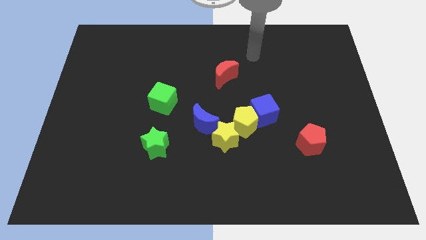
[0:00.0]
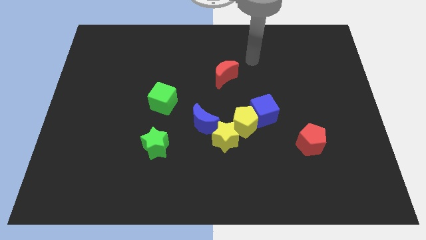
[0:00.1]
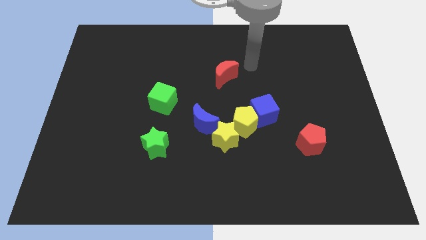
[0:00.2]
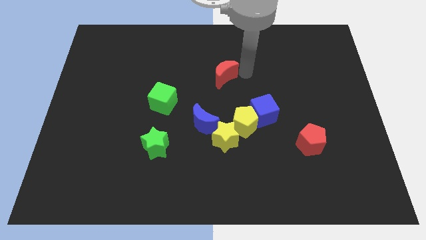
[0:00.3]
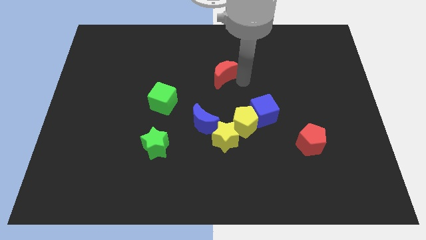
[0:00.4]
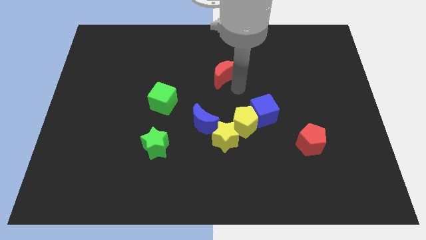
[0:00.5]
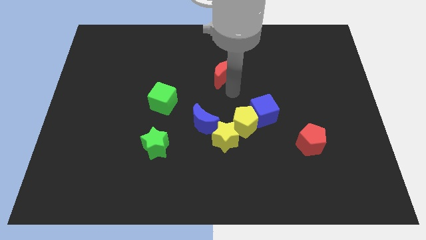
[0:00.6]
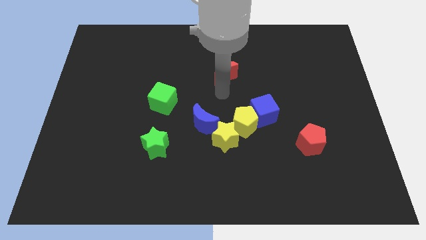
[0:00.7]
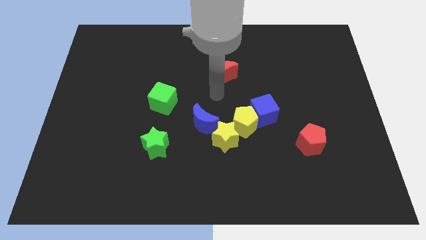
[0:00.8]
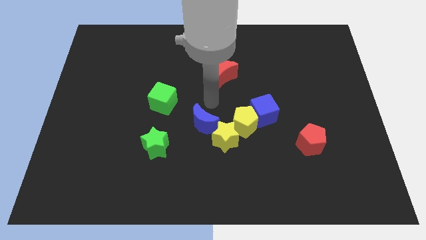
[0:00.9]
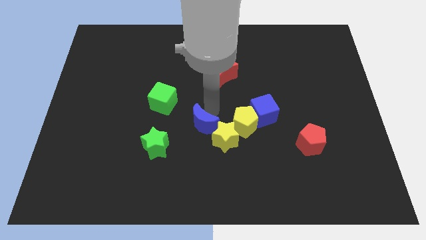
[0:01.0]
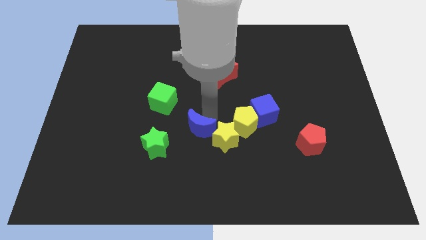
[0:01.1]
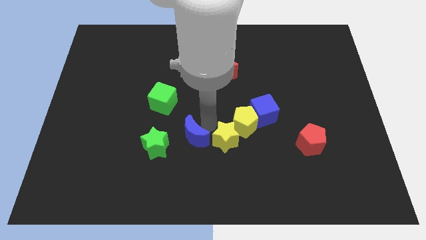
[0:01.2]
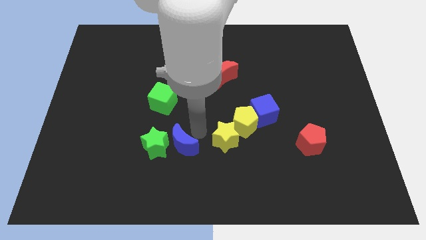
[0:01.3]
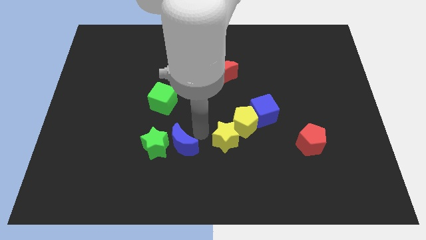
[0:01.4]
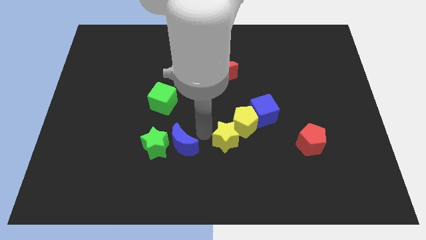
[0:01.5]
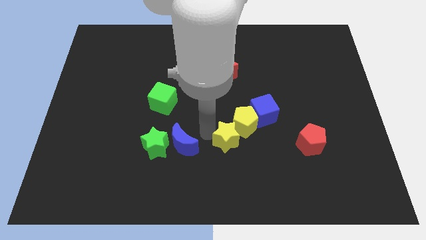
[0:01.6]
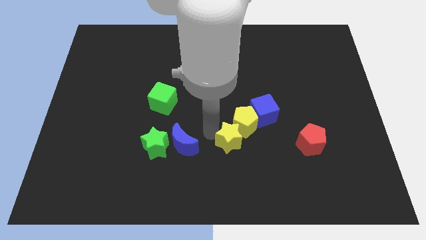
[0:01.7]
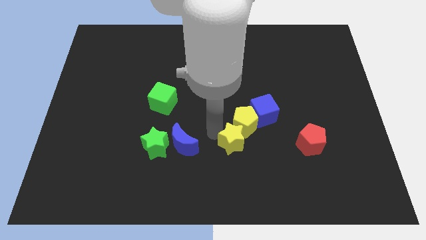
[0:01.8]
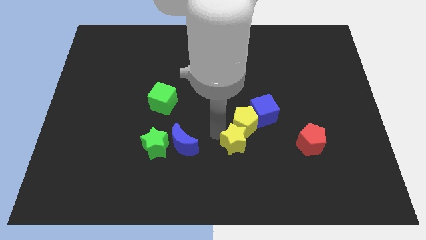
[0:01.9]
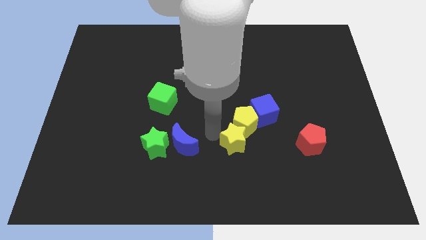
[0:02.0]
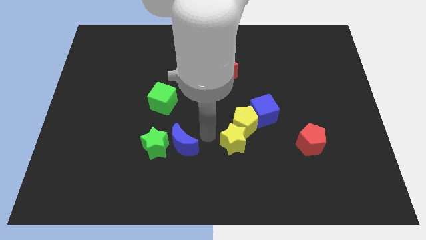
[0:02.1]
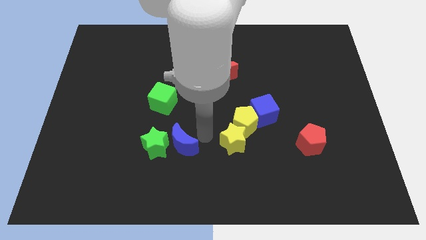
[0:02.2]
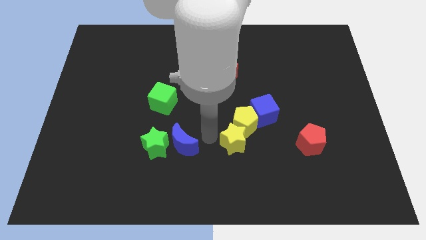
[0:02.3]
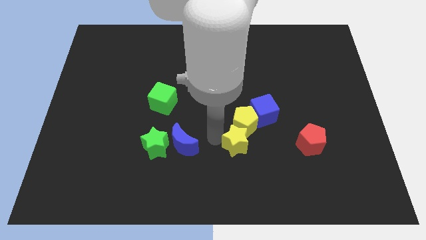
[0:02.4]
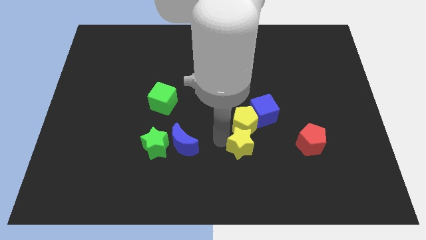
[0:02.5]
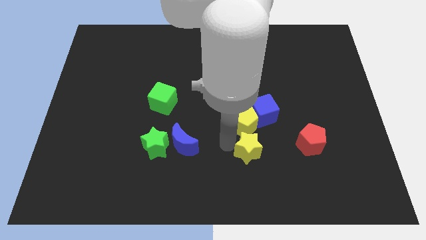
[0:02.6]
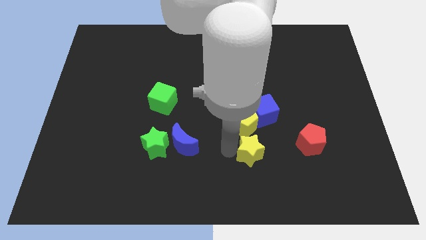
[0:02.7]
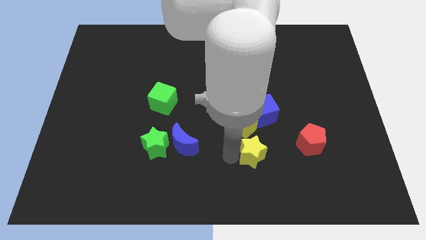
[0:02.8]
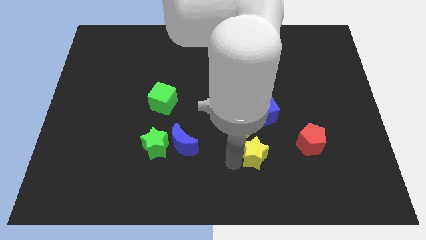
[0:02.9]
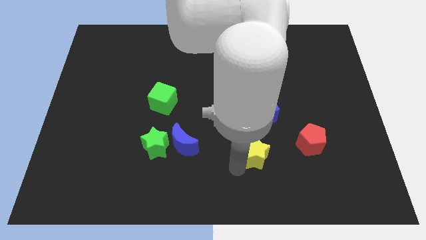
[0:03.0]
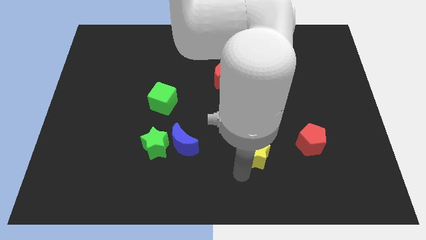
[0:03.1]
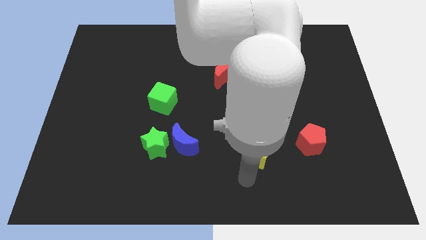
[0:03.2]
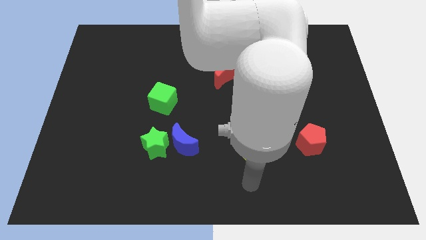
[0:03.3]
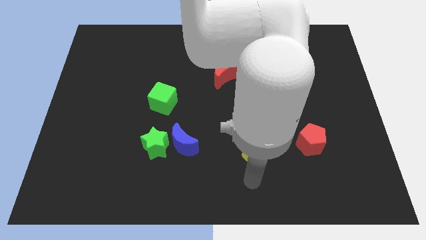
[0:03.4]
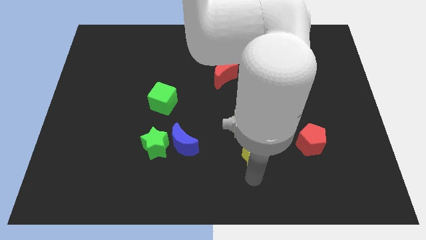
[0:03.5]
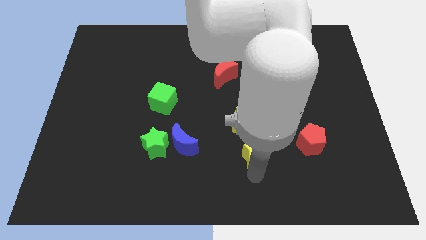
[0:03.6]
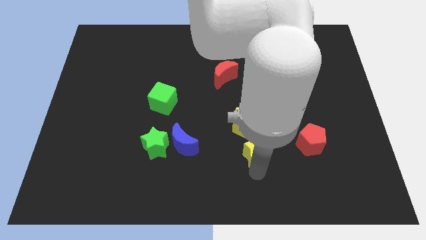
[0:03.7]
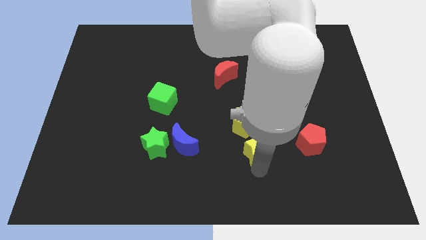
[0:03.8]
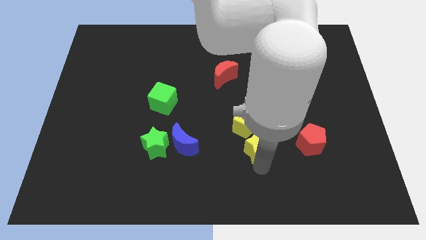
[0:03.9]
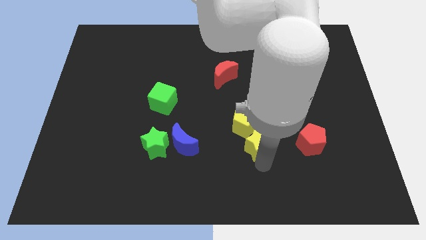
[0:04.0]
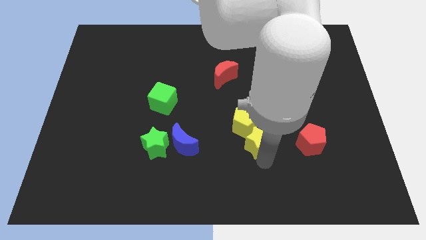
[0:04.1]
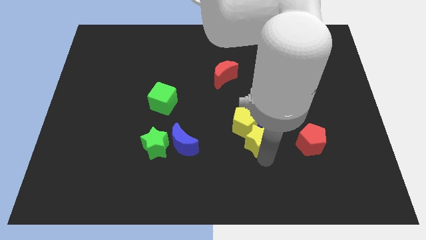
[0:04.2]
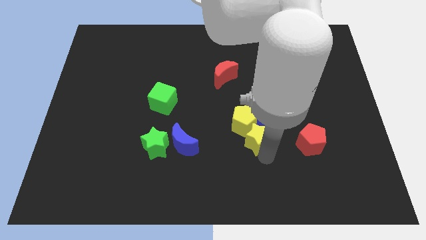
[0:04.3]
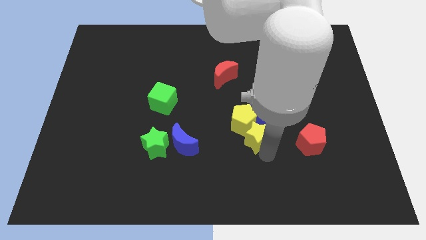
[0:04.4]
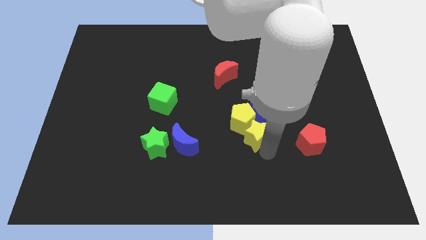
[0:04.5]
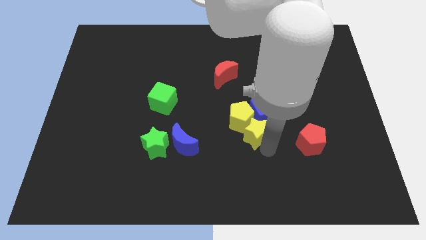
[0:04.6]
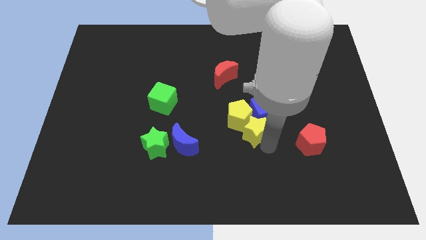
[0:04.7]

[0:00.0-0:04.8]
slide the yellow star towards the blue cube

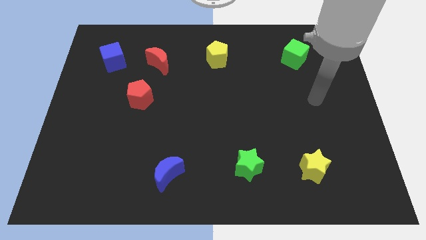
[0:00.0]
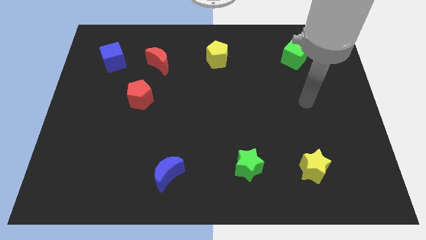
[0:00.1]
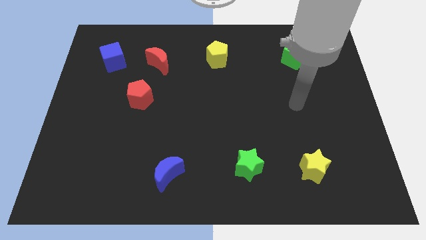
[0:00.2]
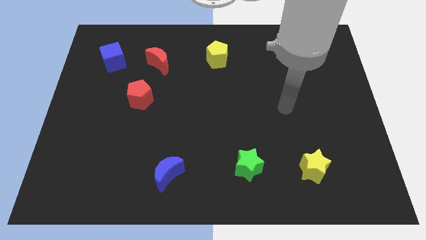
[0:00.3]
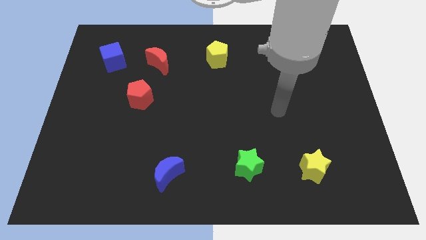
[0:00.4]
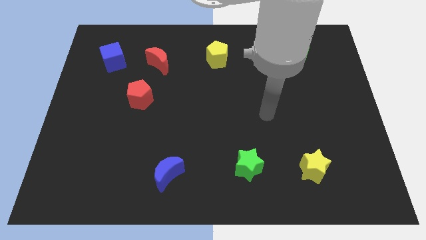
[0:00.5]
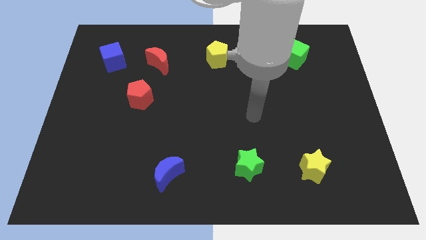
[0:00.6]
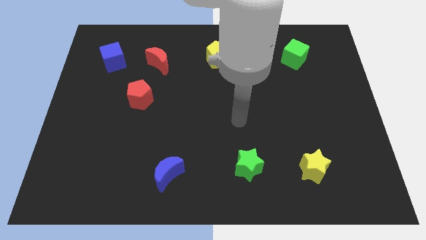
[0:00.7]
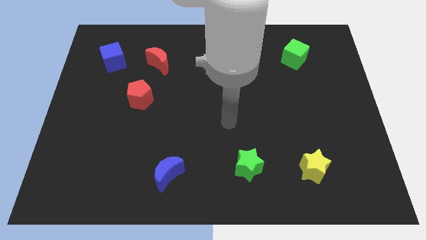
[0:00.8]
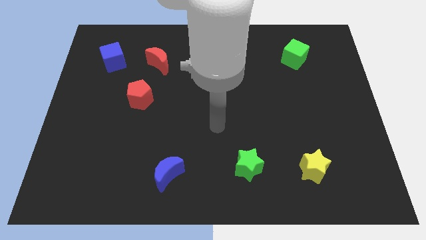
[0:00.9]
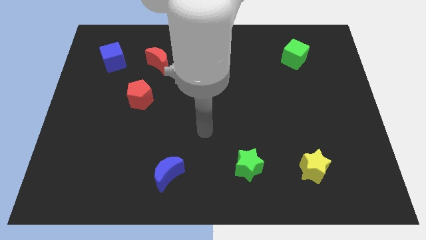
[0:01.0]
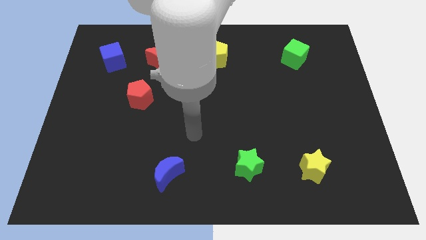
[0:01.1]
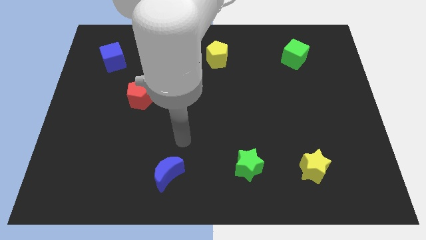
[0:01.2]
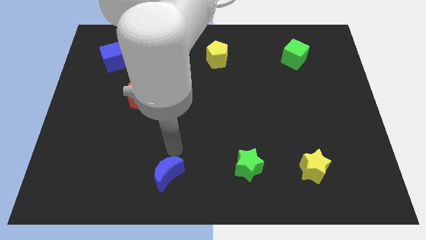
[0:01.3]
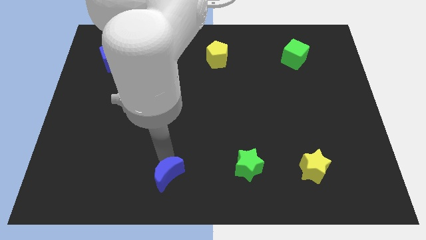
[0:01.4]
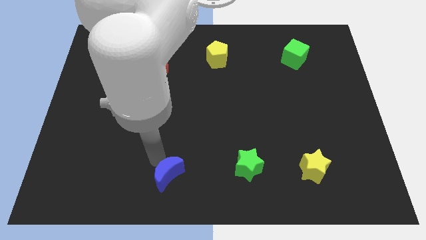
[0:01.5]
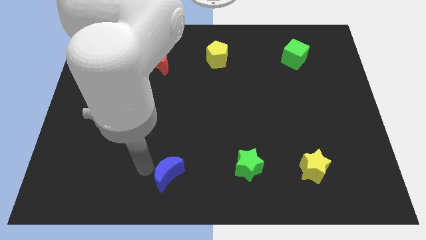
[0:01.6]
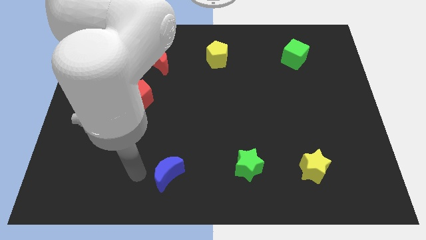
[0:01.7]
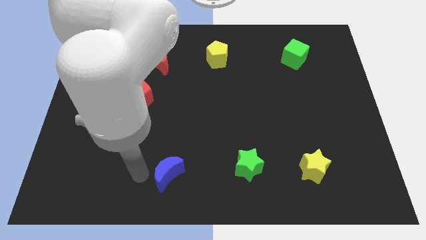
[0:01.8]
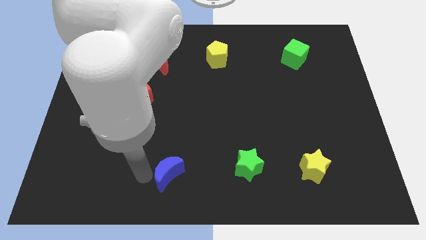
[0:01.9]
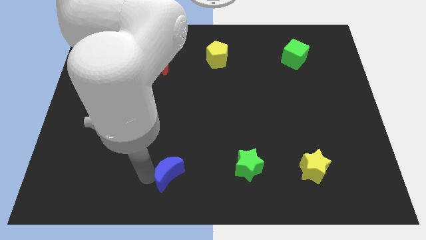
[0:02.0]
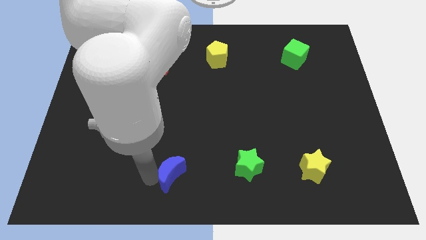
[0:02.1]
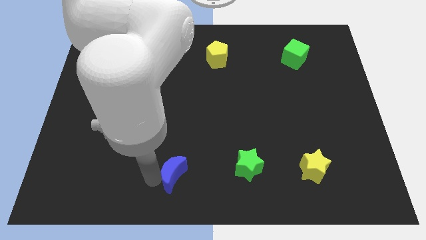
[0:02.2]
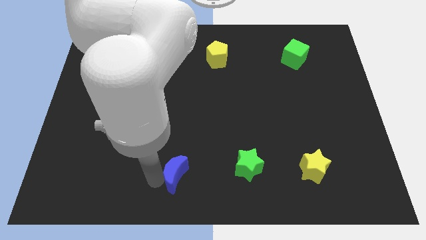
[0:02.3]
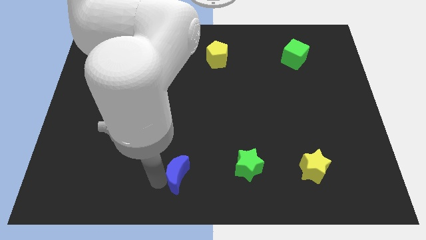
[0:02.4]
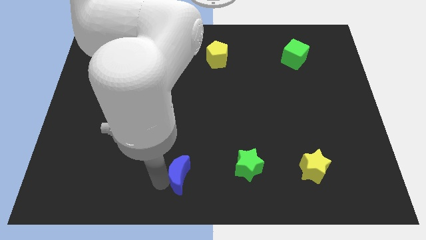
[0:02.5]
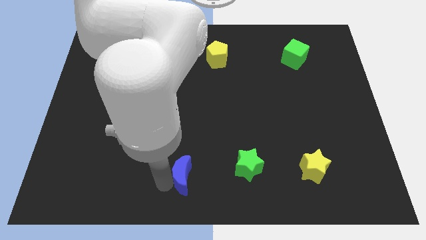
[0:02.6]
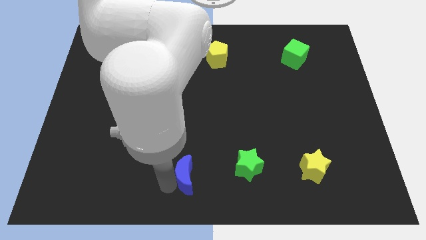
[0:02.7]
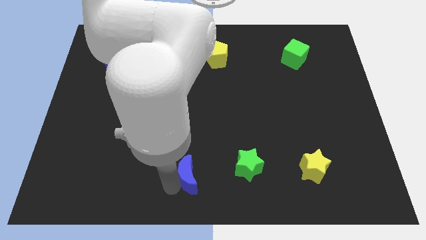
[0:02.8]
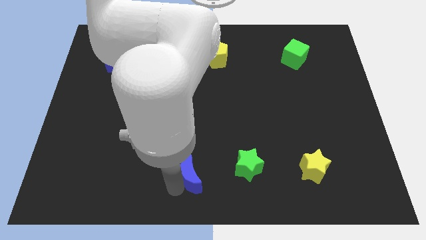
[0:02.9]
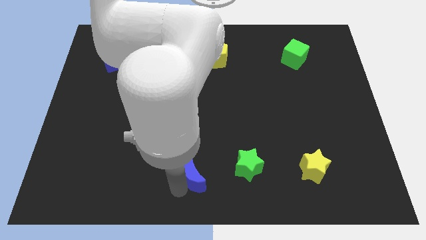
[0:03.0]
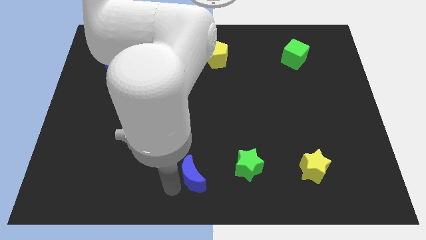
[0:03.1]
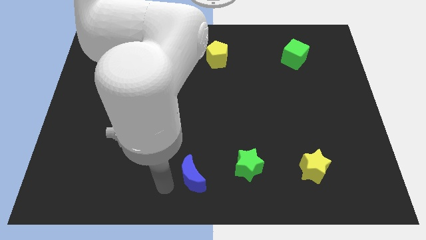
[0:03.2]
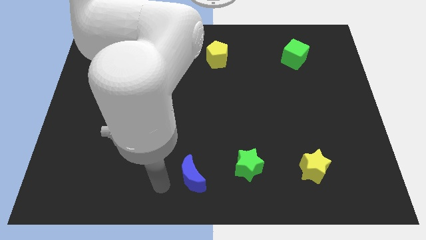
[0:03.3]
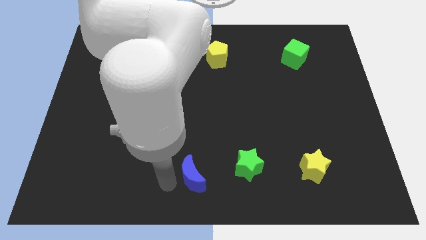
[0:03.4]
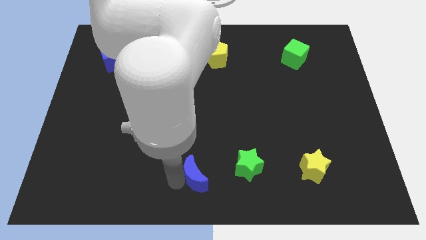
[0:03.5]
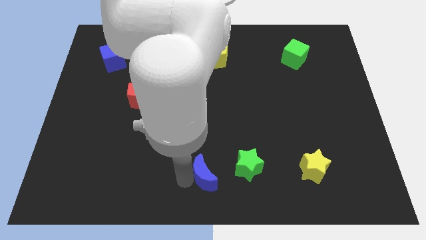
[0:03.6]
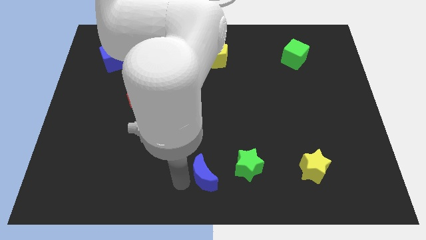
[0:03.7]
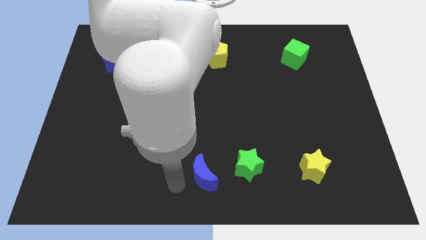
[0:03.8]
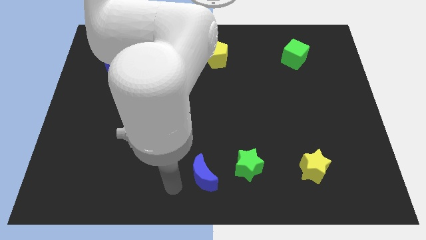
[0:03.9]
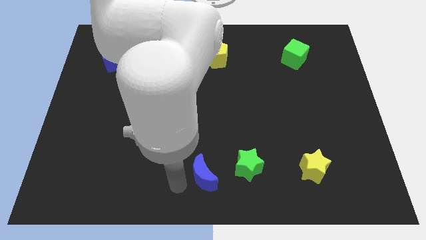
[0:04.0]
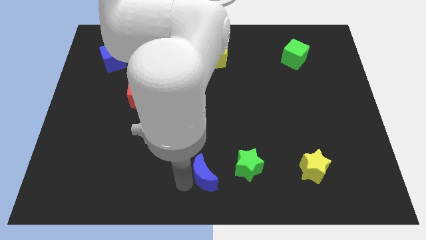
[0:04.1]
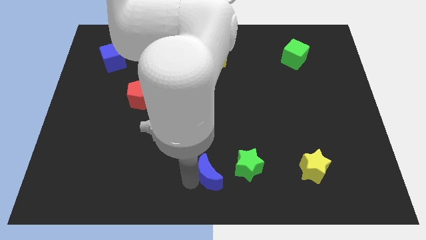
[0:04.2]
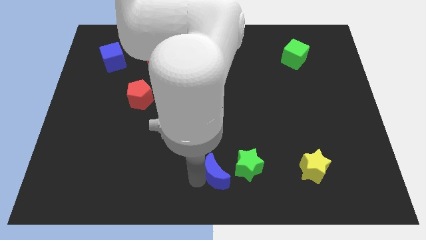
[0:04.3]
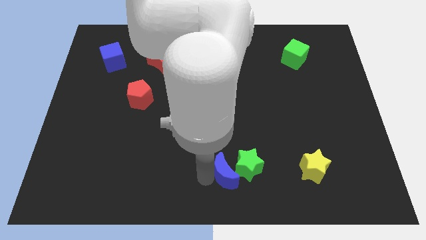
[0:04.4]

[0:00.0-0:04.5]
put the blue moon next to the green star
